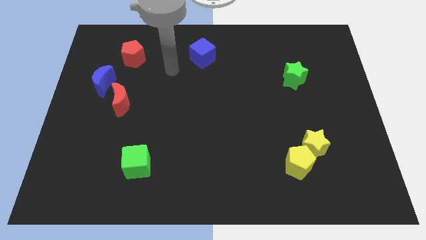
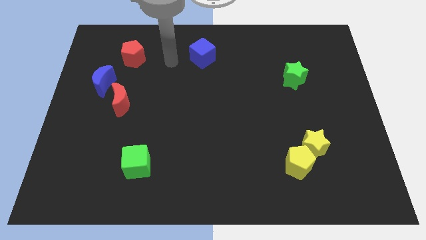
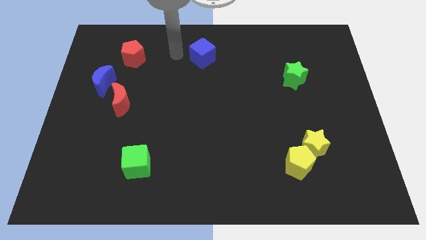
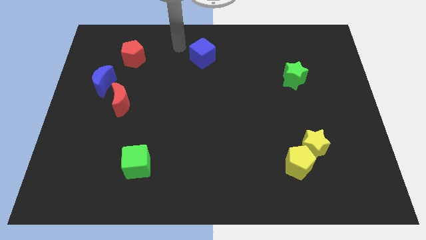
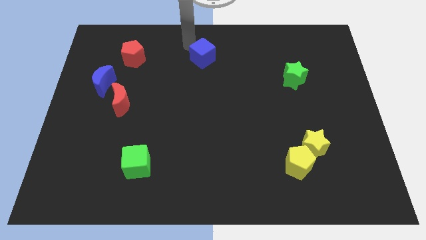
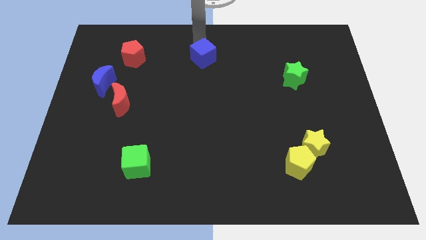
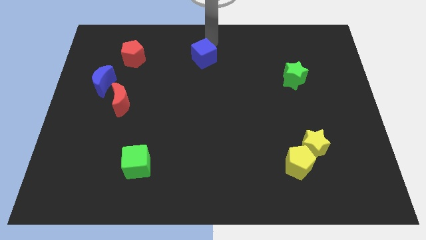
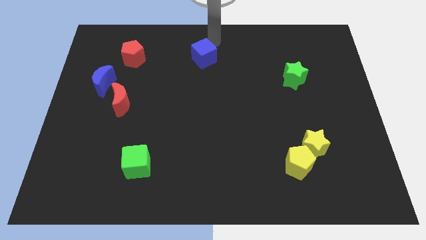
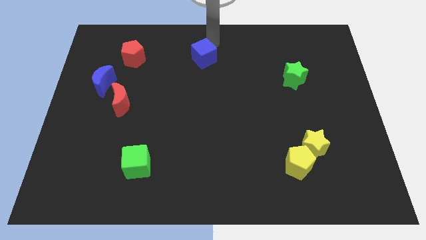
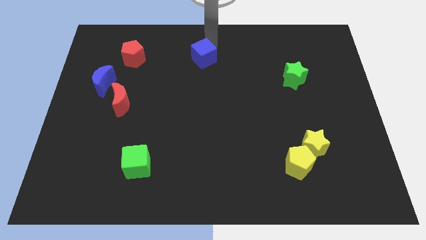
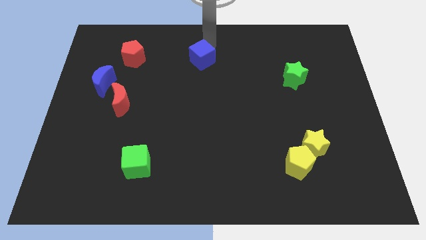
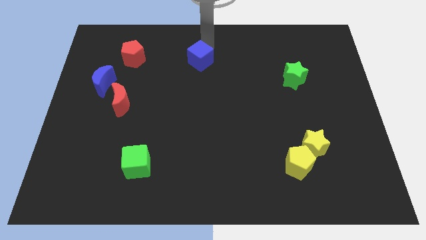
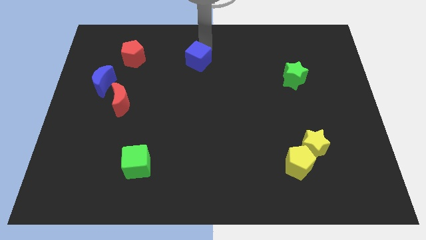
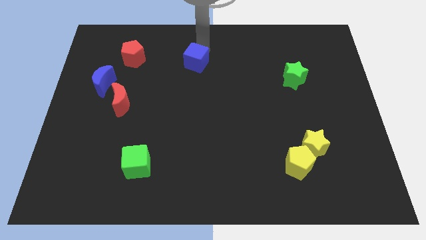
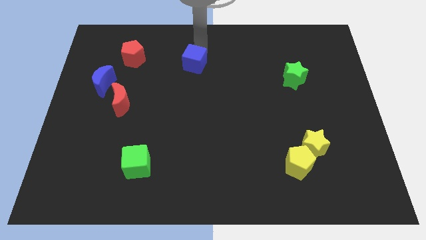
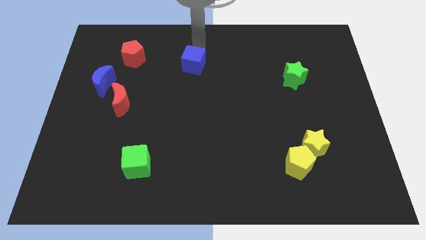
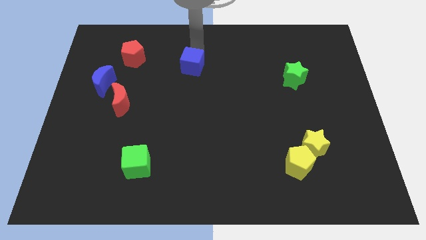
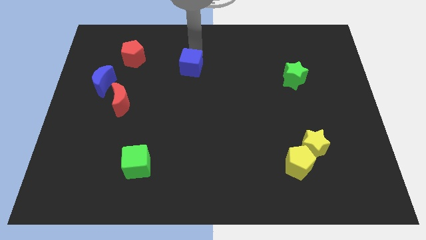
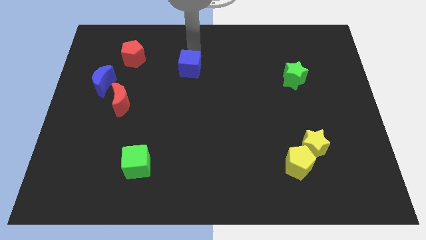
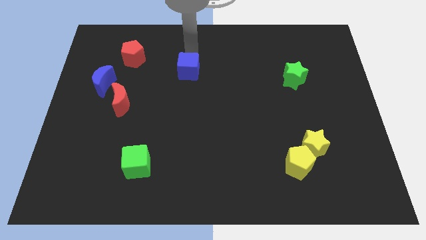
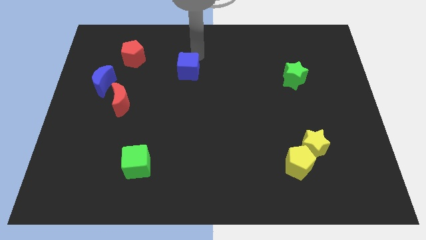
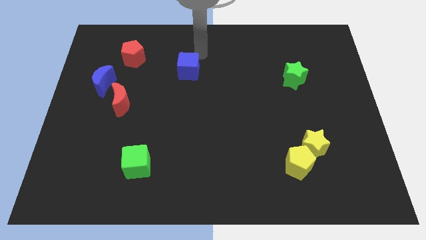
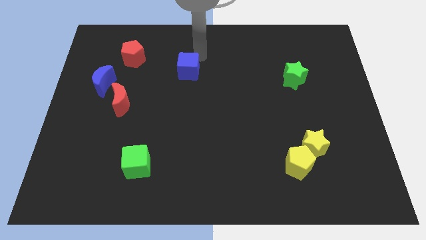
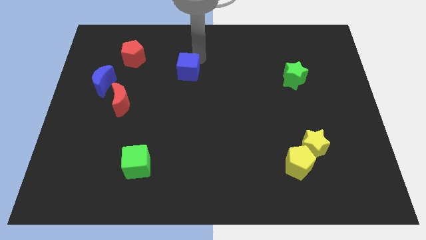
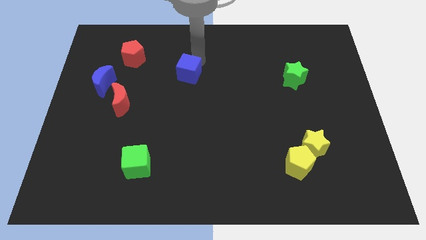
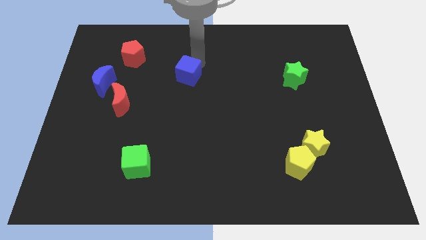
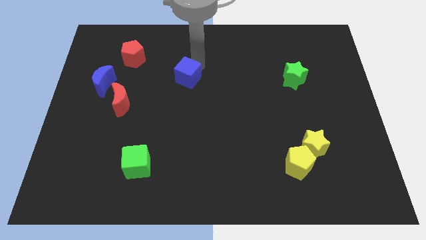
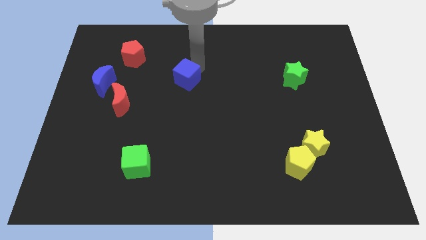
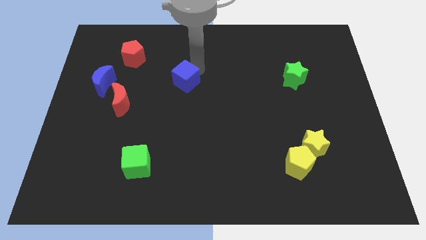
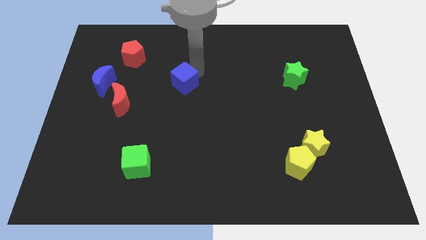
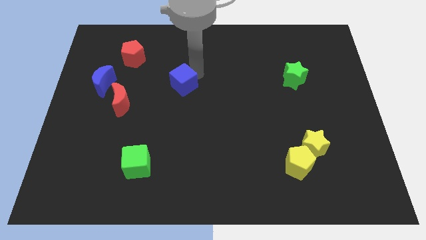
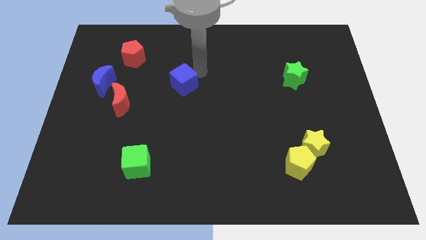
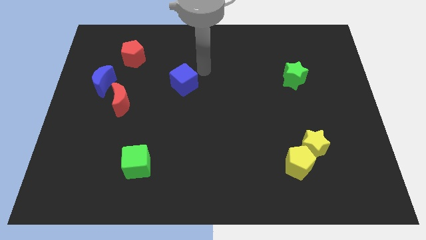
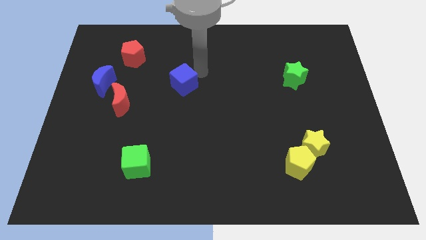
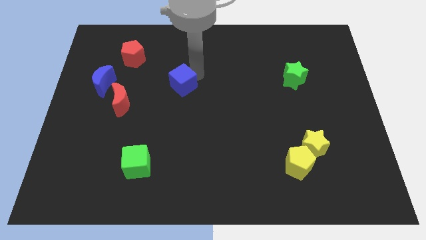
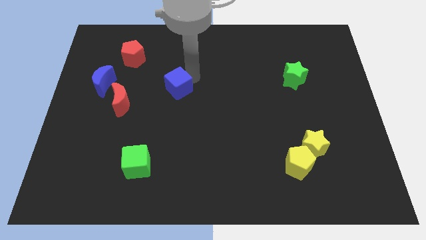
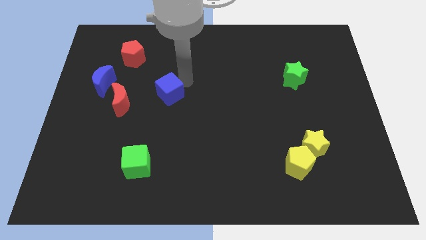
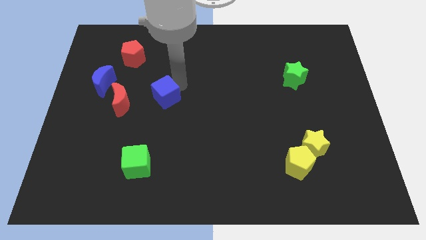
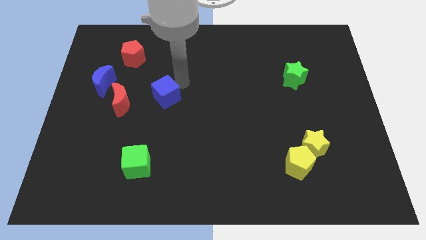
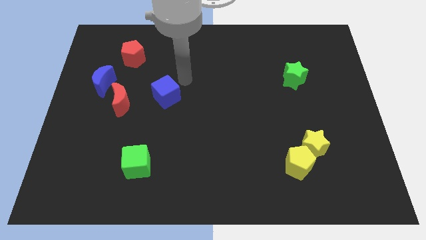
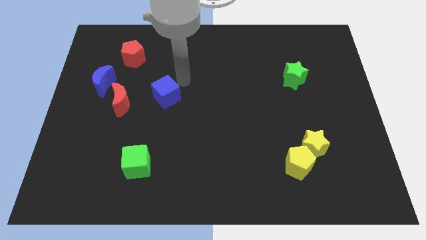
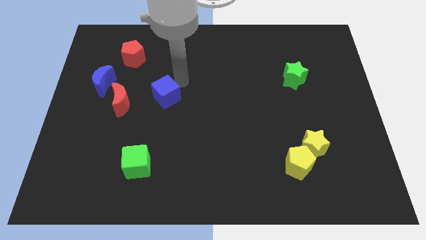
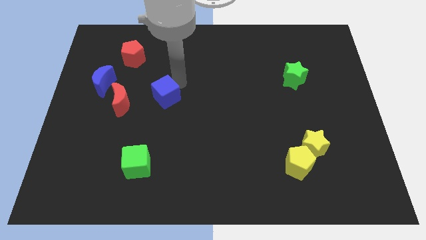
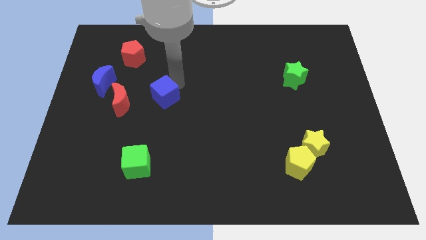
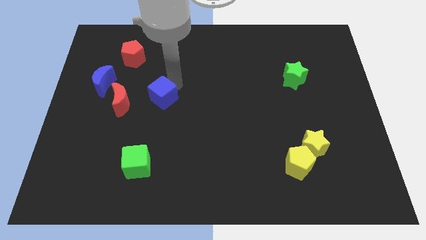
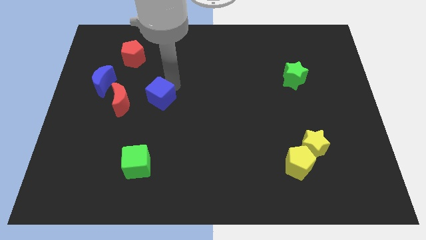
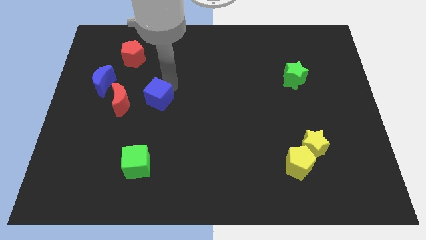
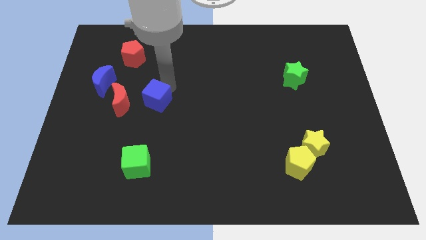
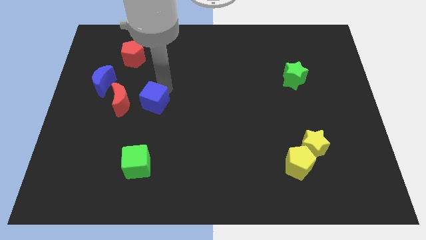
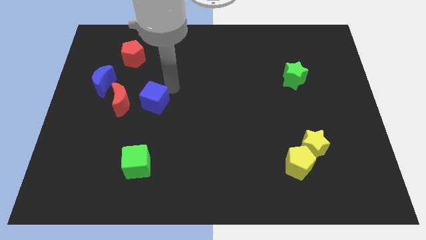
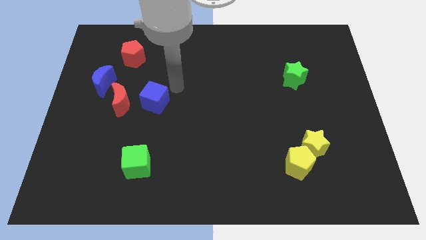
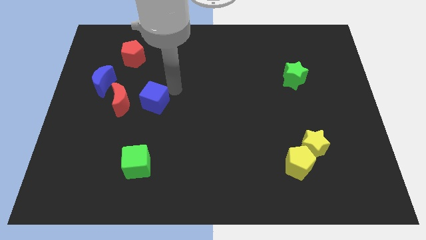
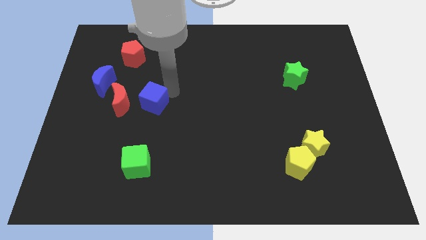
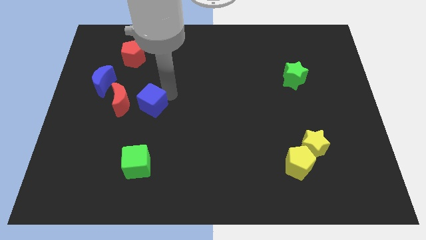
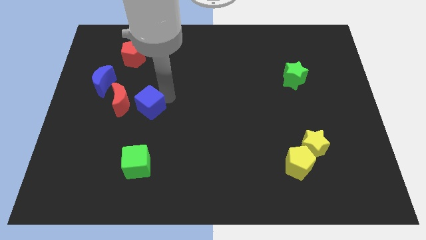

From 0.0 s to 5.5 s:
slide the blue cube downwards and to the left diagonally

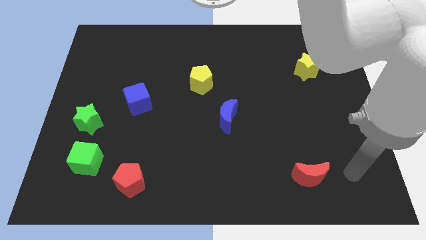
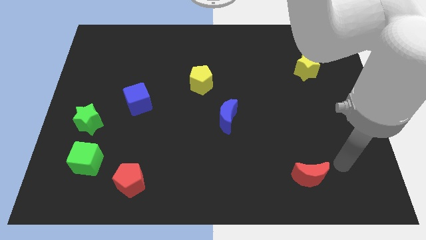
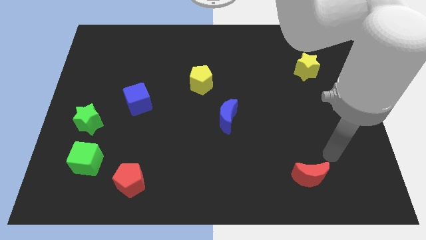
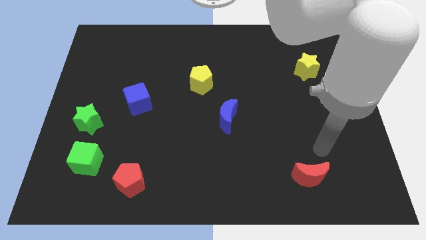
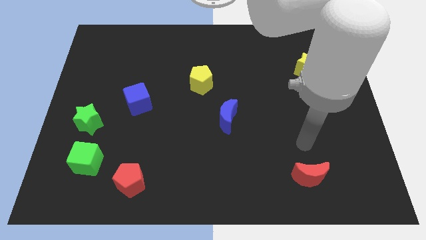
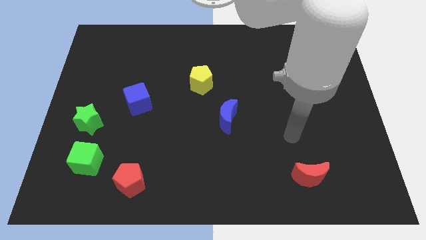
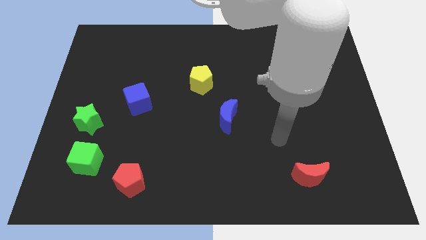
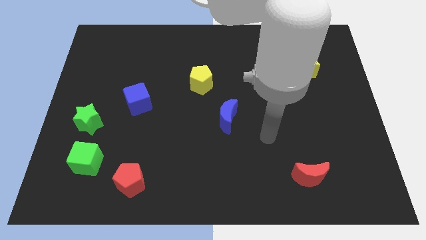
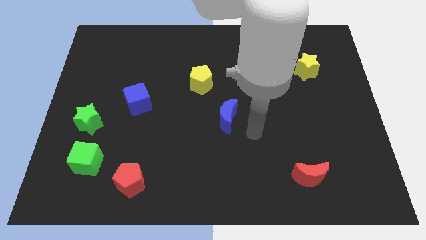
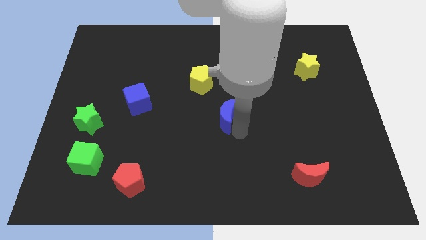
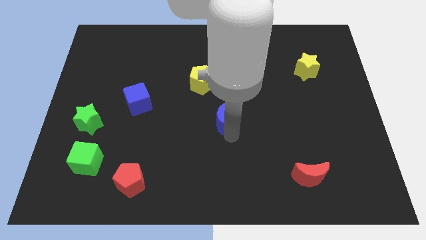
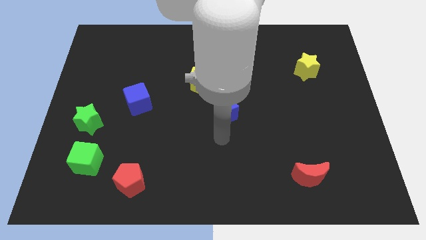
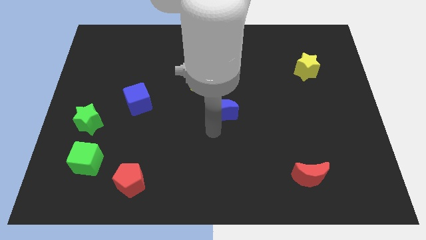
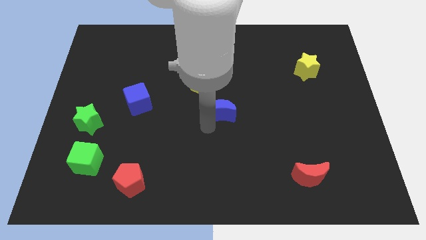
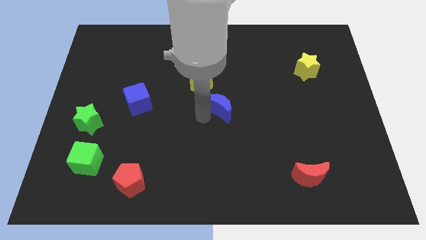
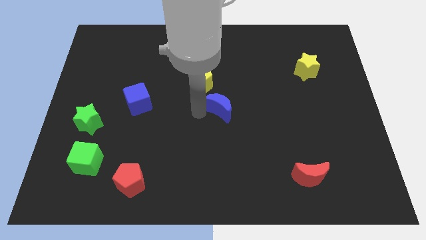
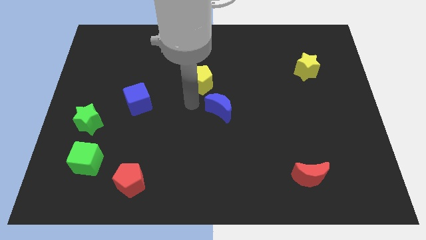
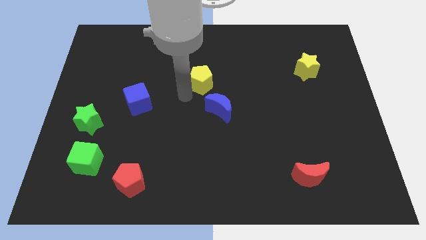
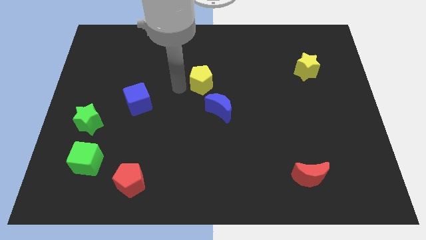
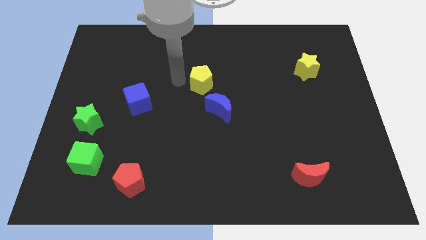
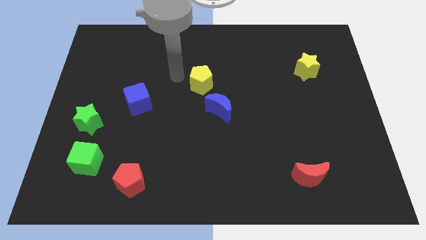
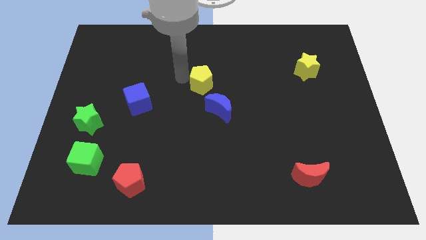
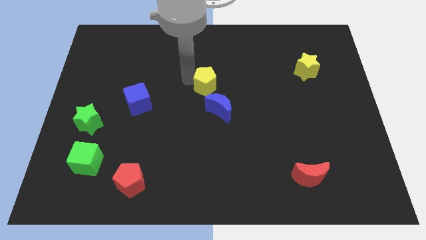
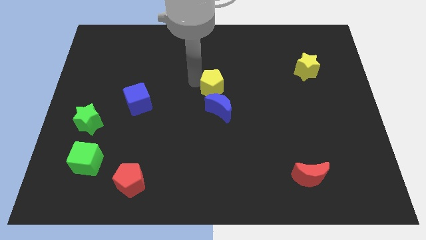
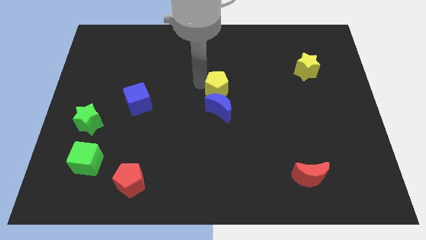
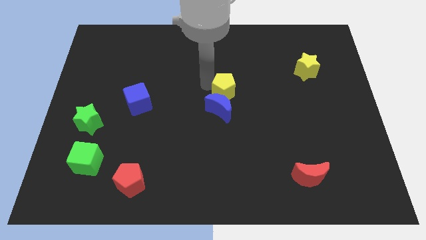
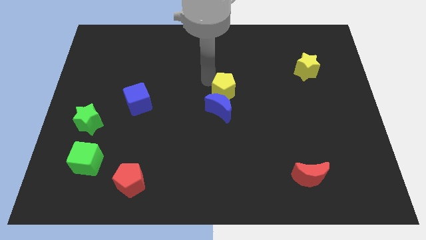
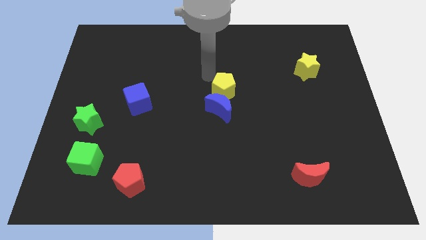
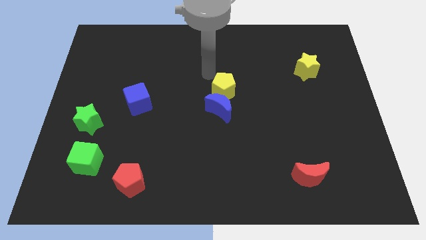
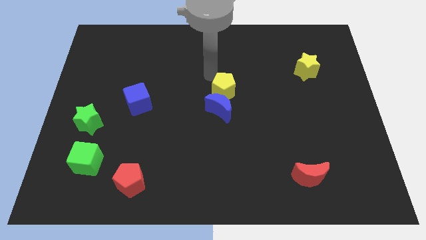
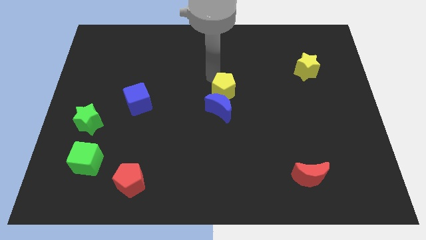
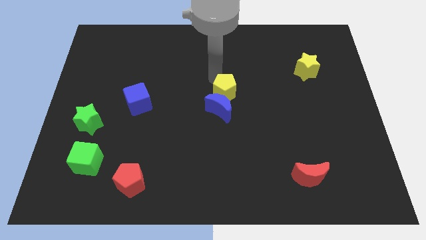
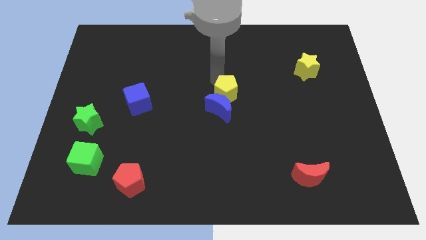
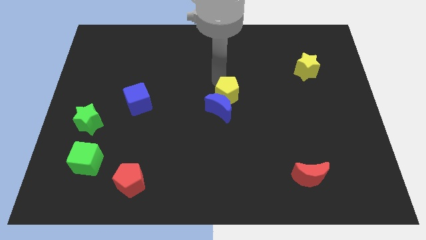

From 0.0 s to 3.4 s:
slightly move the yellow pentagon diagonally downwards and to the right

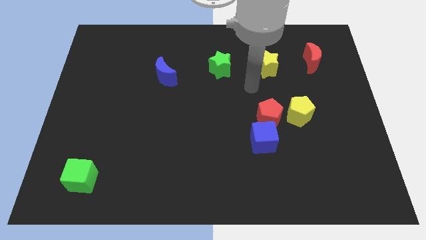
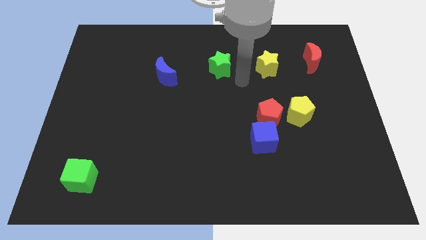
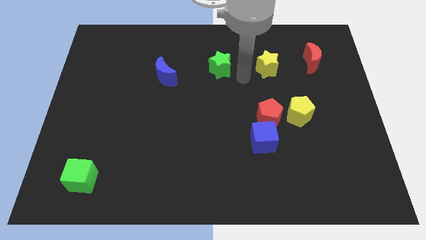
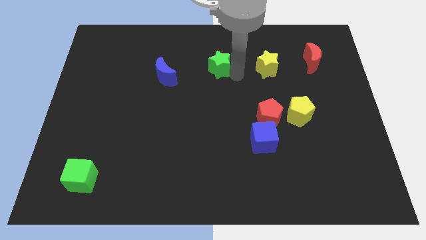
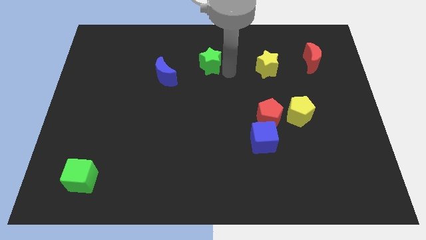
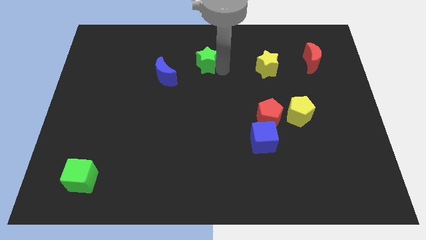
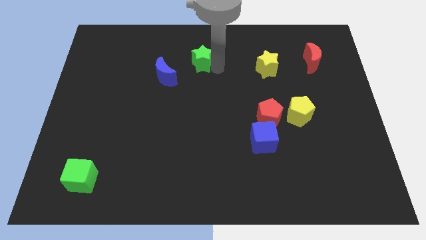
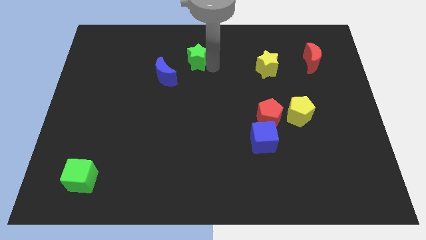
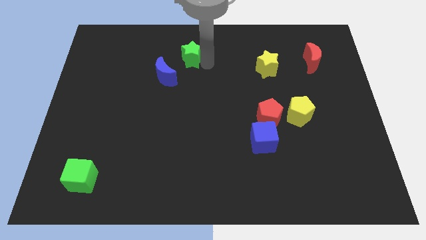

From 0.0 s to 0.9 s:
slide the green star left somewhat
